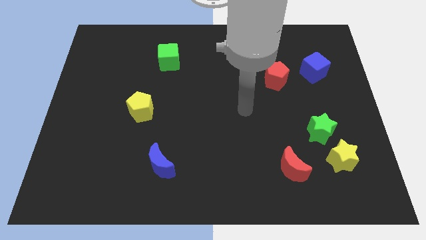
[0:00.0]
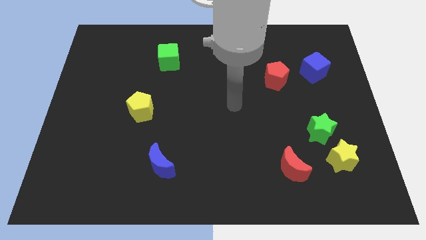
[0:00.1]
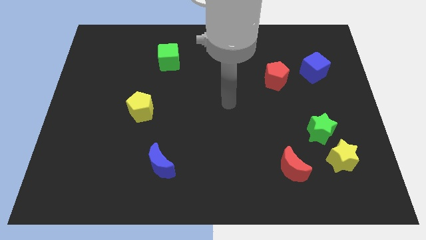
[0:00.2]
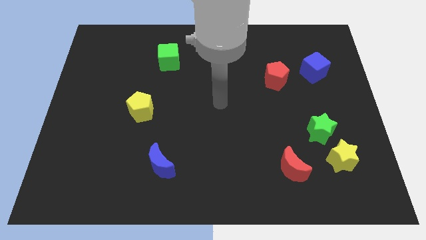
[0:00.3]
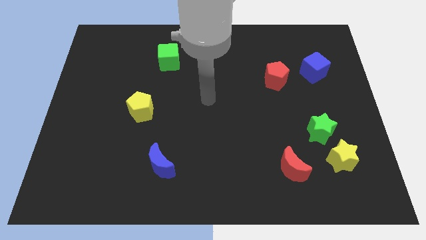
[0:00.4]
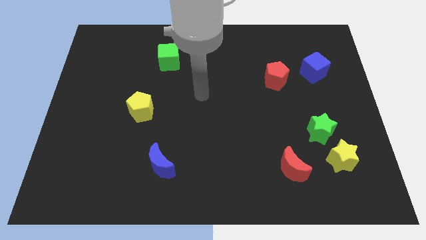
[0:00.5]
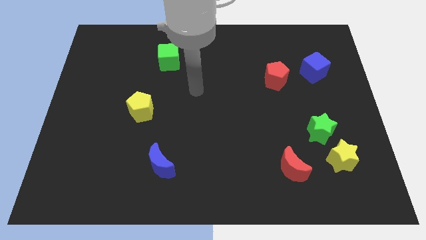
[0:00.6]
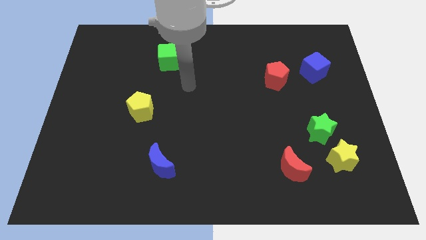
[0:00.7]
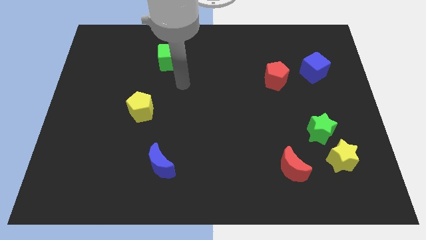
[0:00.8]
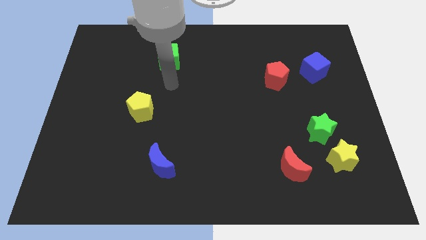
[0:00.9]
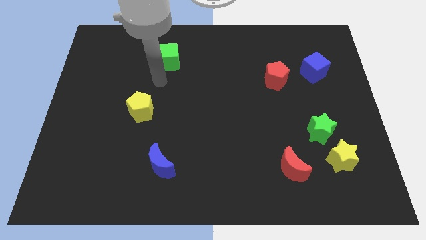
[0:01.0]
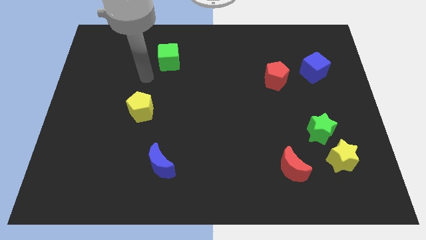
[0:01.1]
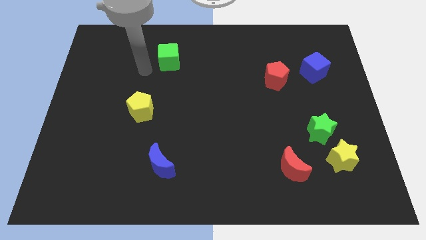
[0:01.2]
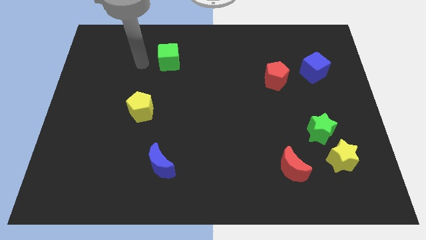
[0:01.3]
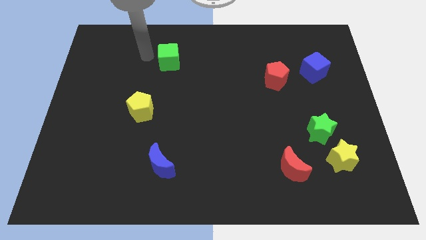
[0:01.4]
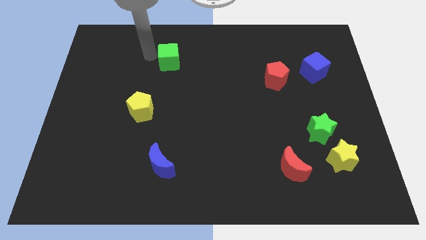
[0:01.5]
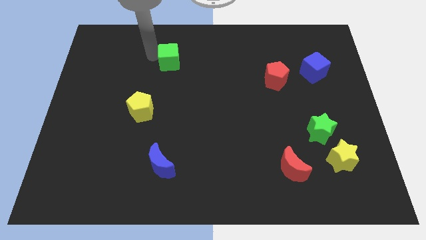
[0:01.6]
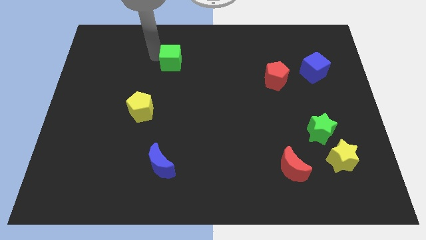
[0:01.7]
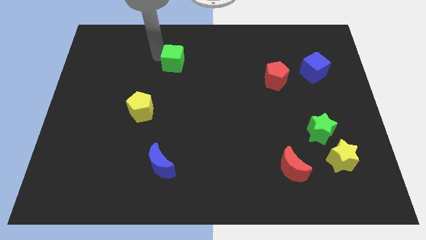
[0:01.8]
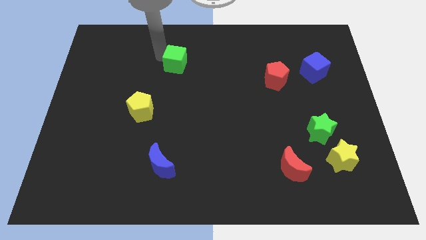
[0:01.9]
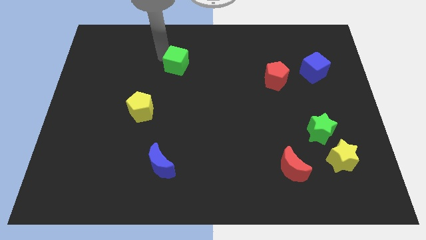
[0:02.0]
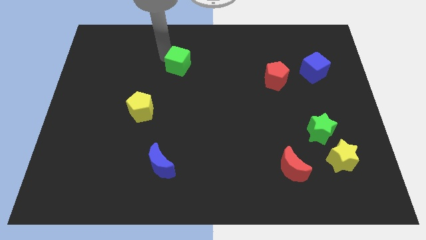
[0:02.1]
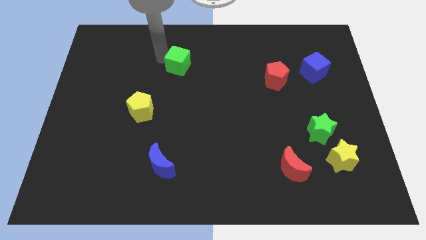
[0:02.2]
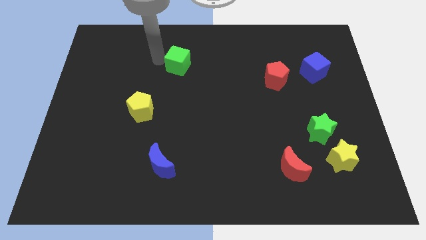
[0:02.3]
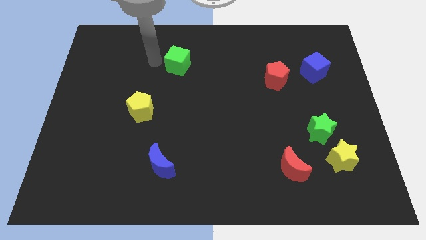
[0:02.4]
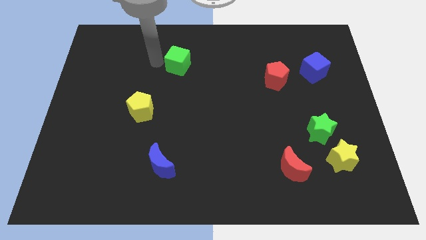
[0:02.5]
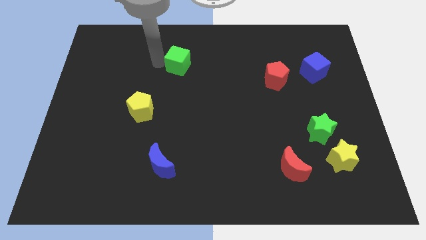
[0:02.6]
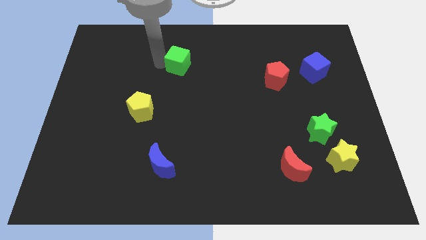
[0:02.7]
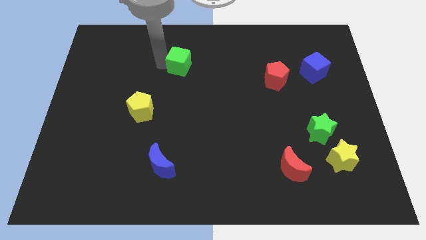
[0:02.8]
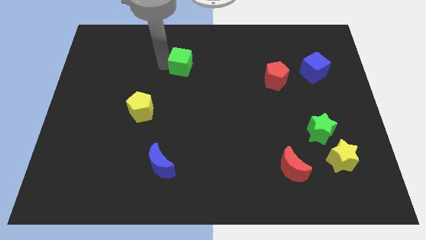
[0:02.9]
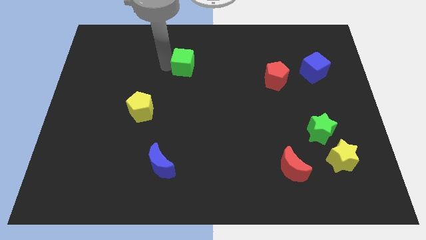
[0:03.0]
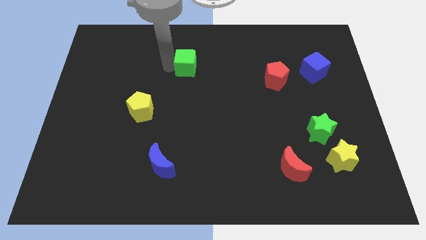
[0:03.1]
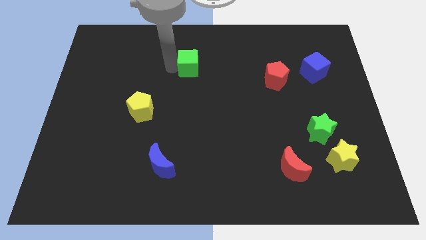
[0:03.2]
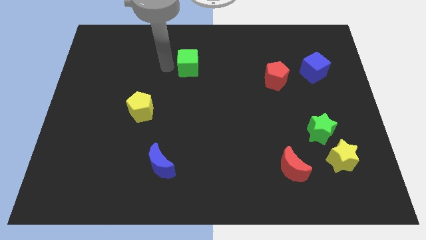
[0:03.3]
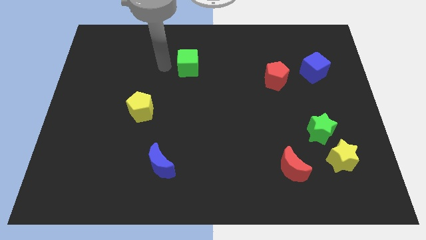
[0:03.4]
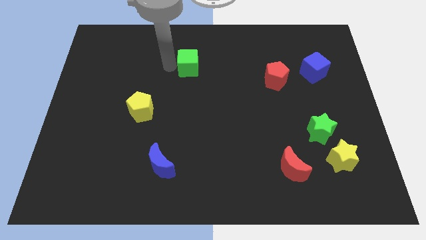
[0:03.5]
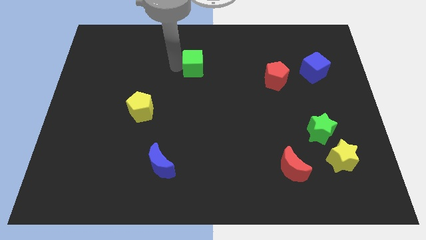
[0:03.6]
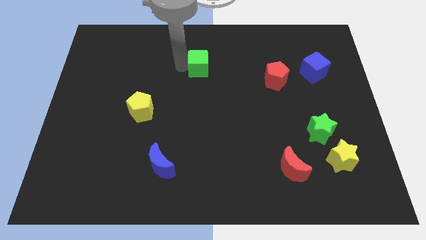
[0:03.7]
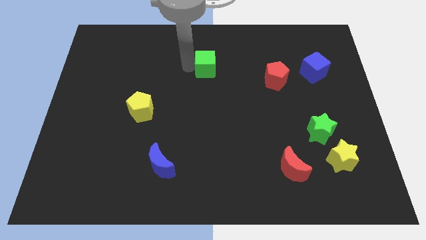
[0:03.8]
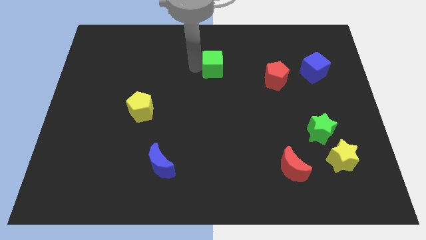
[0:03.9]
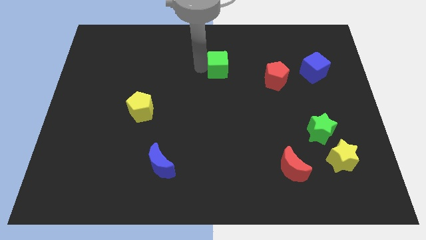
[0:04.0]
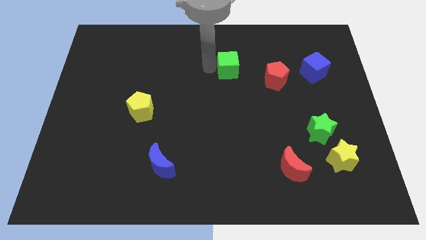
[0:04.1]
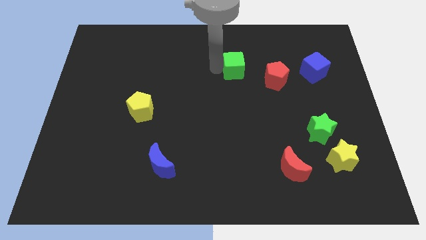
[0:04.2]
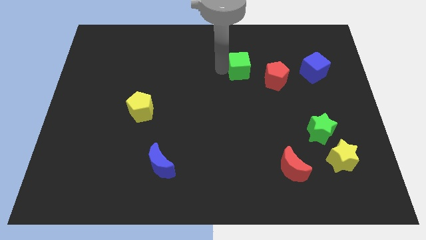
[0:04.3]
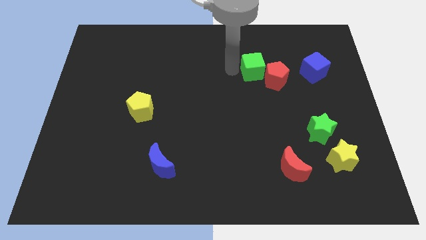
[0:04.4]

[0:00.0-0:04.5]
push the green cube to the right

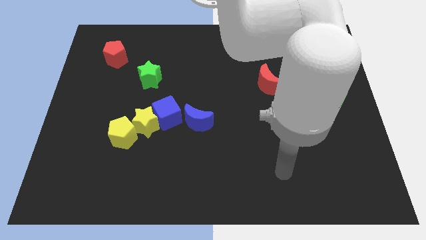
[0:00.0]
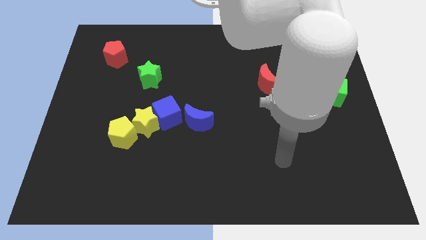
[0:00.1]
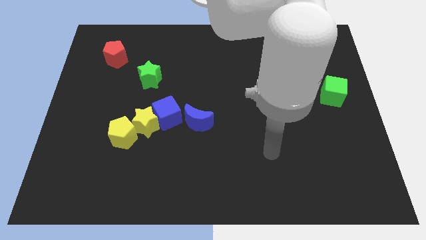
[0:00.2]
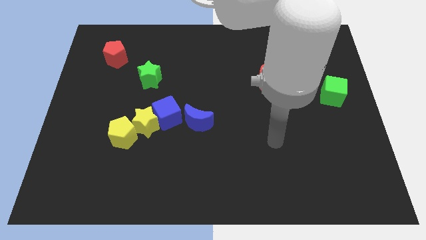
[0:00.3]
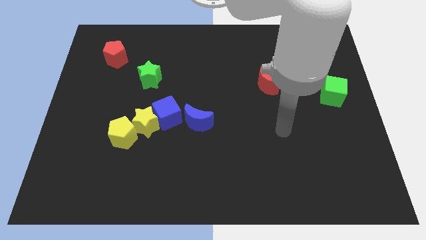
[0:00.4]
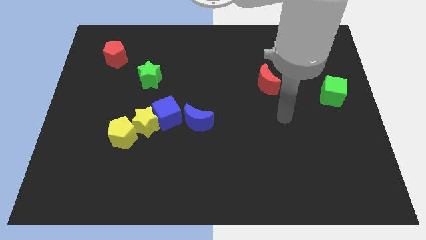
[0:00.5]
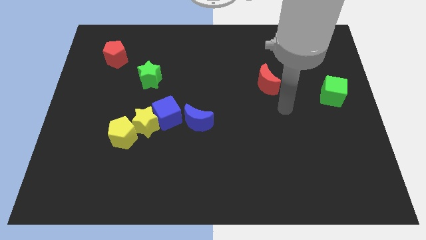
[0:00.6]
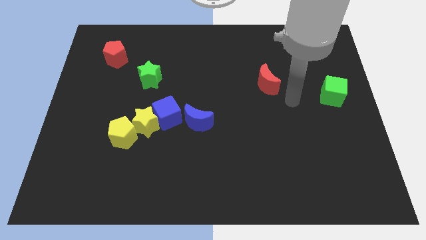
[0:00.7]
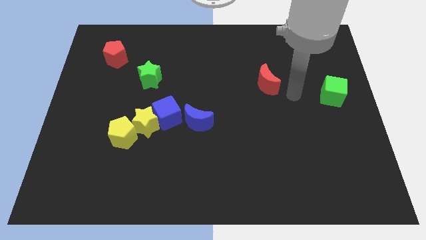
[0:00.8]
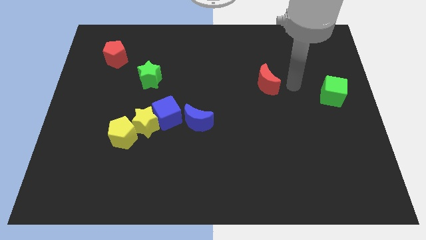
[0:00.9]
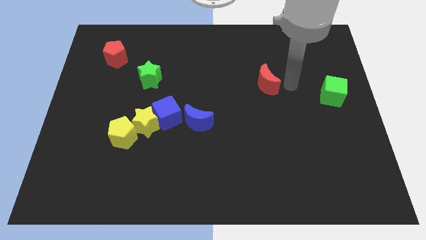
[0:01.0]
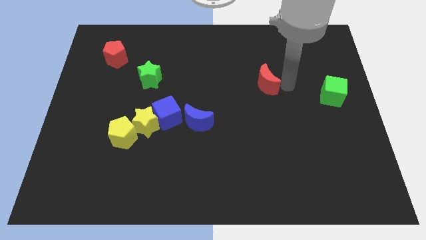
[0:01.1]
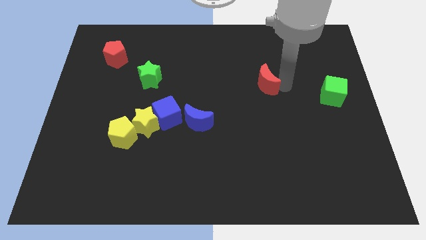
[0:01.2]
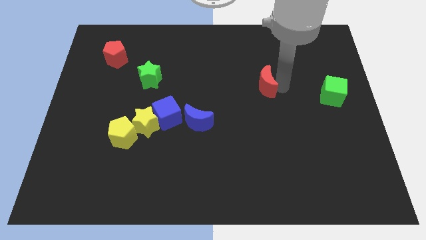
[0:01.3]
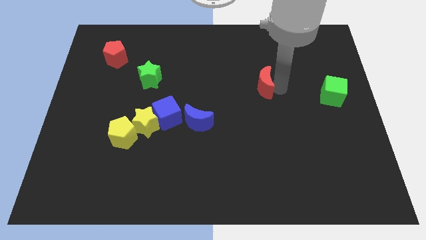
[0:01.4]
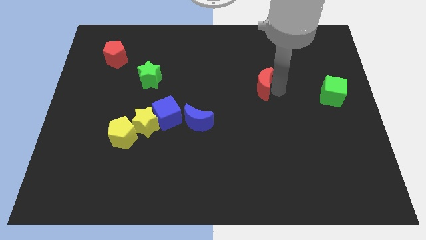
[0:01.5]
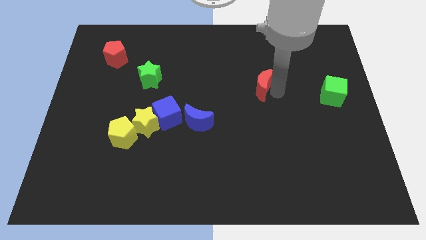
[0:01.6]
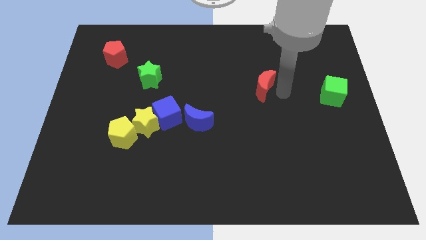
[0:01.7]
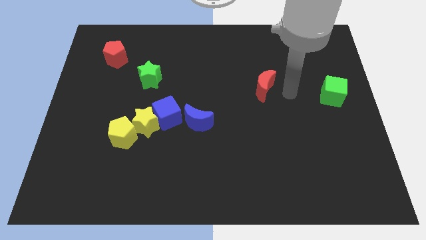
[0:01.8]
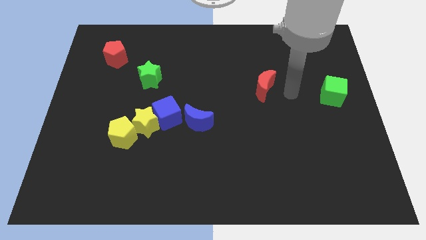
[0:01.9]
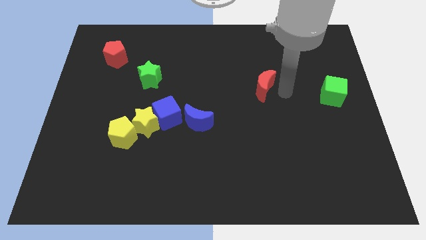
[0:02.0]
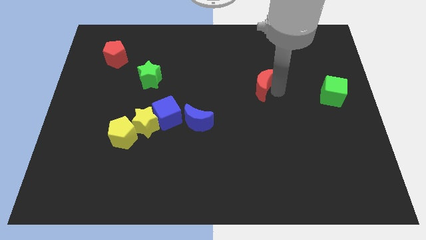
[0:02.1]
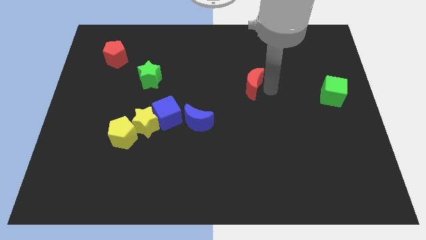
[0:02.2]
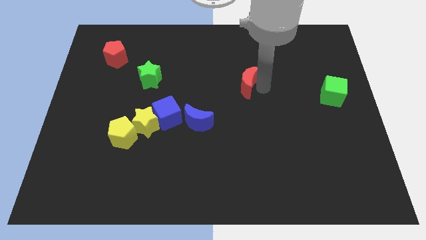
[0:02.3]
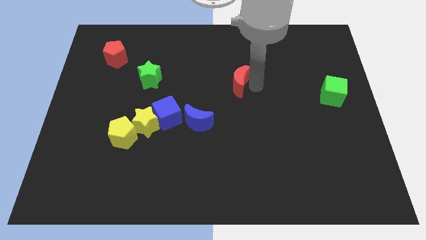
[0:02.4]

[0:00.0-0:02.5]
slightly slide the red moon to the left

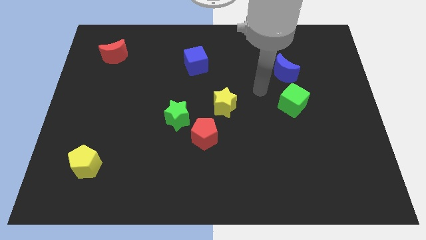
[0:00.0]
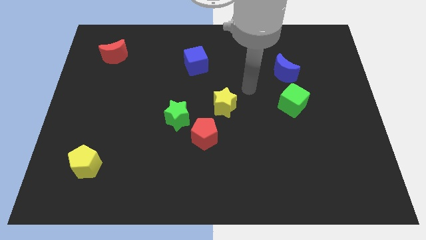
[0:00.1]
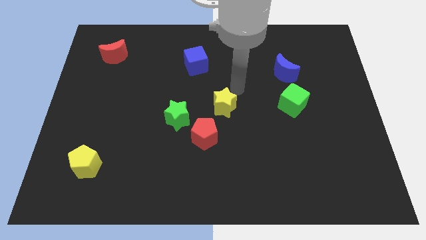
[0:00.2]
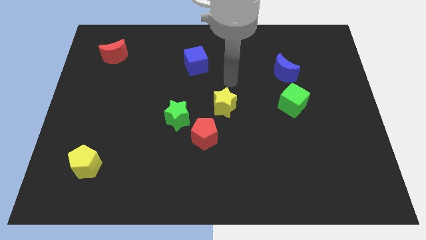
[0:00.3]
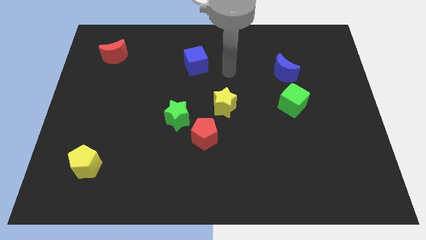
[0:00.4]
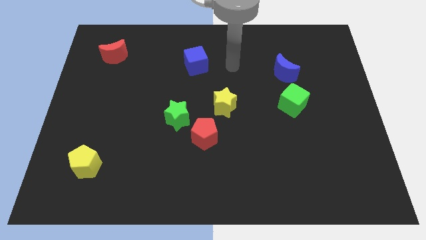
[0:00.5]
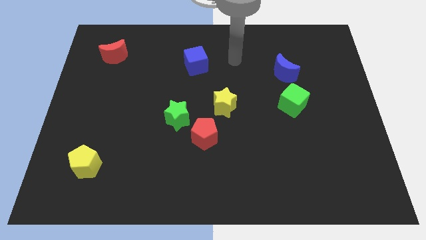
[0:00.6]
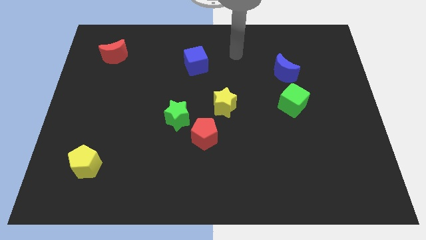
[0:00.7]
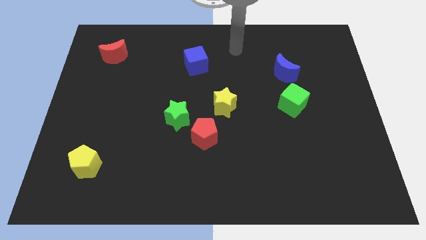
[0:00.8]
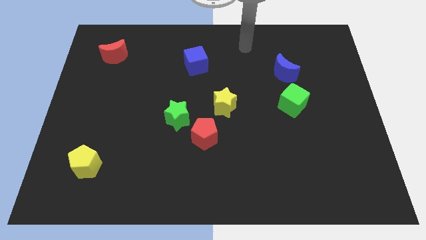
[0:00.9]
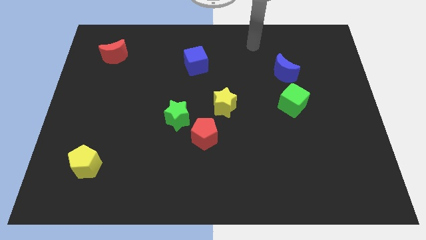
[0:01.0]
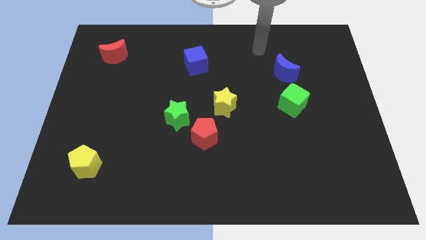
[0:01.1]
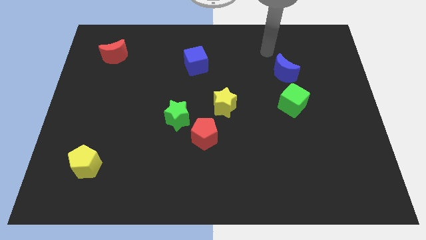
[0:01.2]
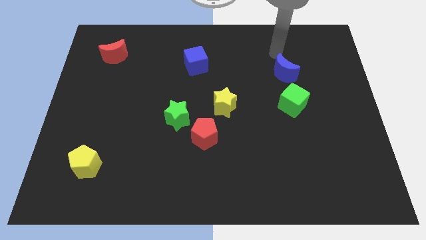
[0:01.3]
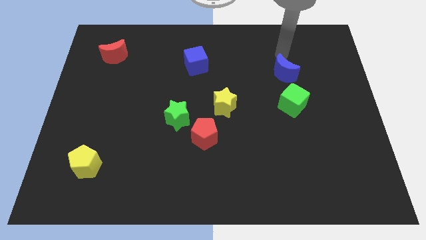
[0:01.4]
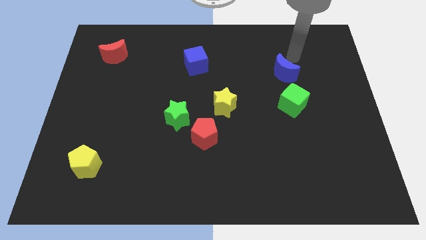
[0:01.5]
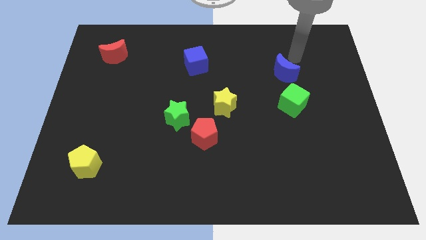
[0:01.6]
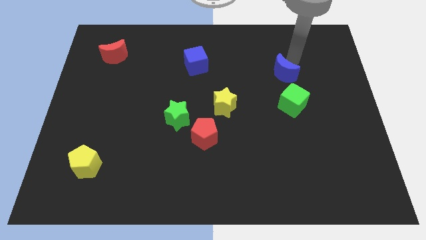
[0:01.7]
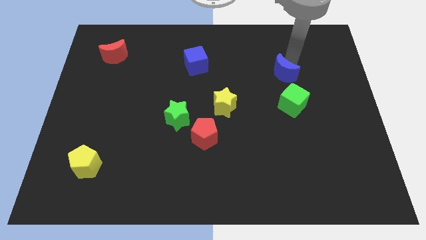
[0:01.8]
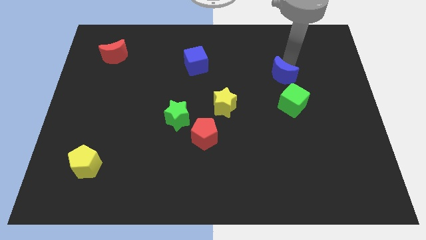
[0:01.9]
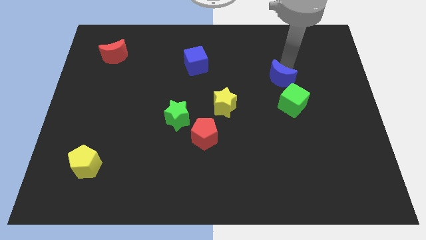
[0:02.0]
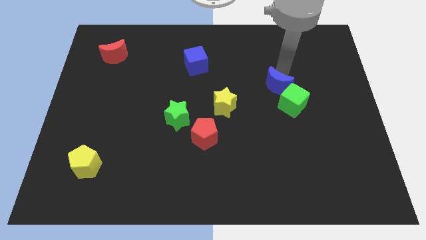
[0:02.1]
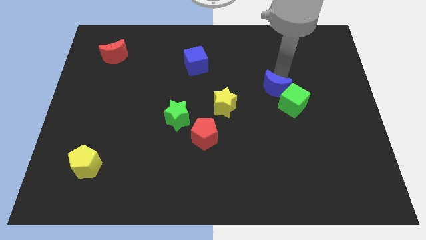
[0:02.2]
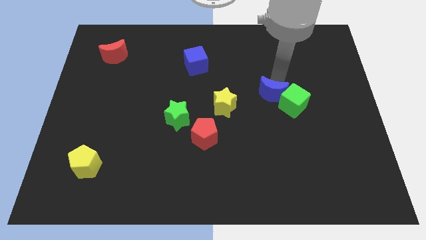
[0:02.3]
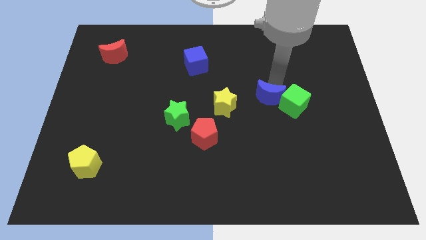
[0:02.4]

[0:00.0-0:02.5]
push the blue moon down somewhat
